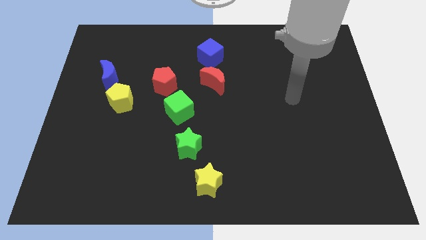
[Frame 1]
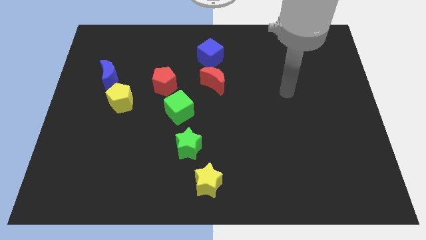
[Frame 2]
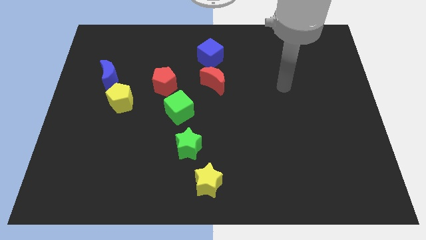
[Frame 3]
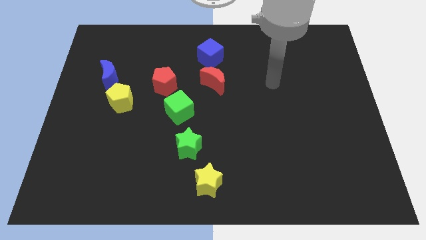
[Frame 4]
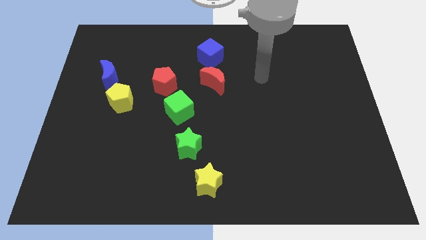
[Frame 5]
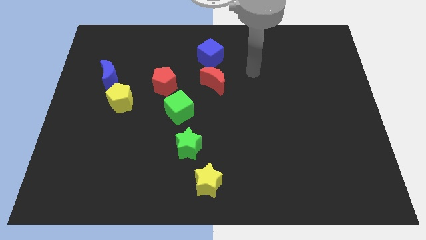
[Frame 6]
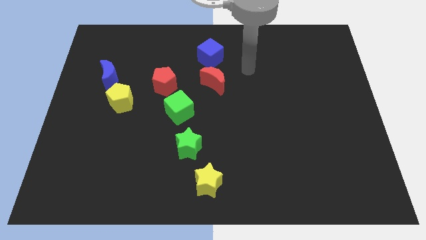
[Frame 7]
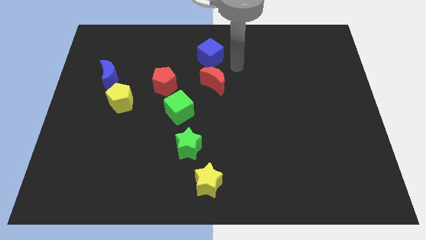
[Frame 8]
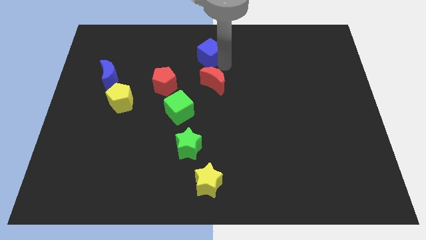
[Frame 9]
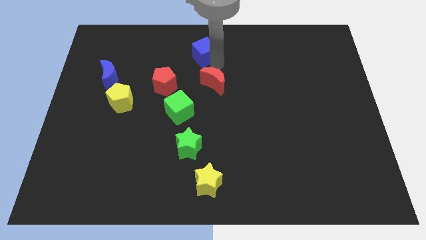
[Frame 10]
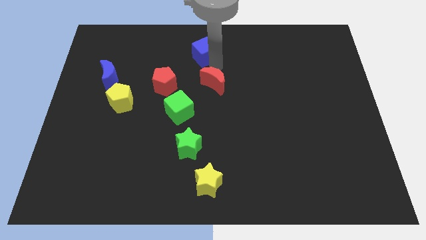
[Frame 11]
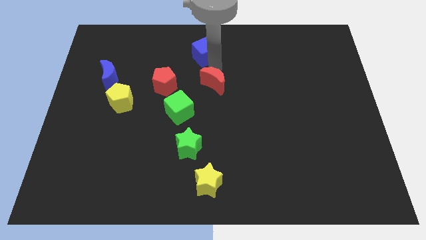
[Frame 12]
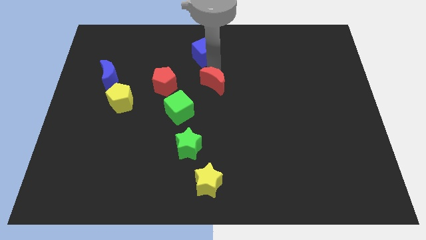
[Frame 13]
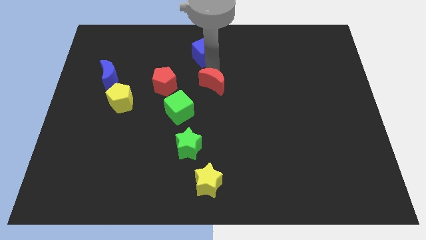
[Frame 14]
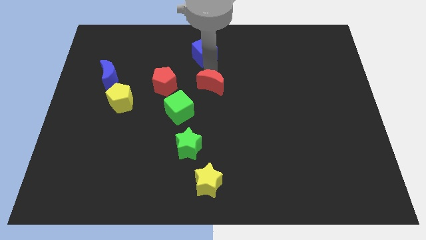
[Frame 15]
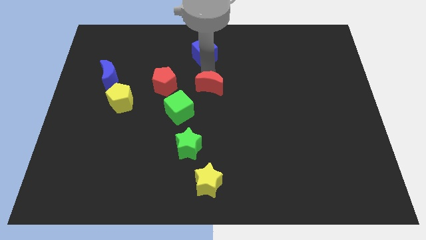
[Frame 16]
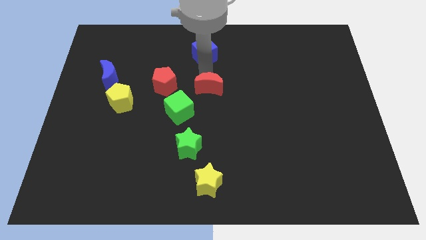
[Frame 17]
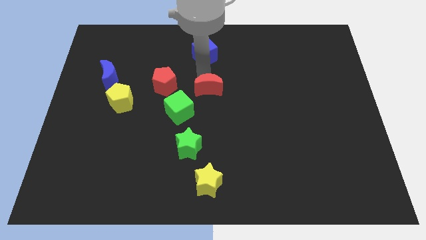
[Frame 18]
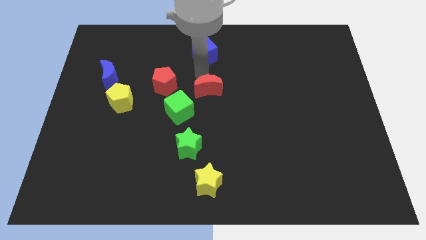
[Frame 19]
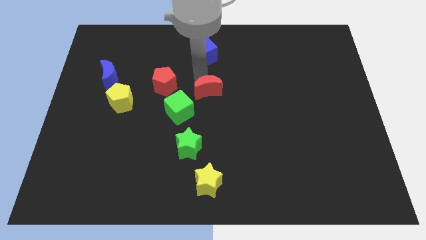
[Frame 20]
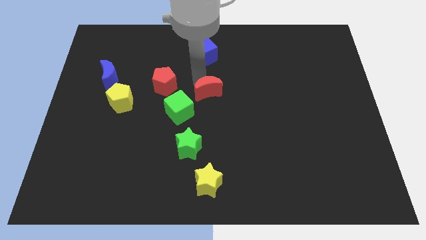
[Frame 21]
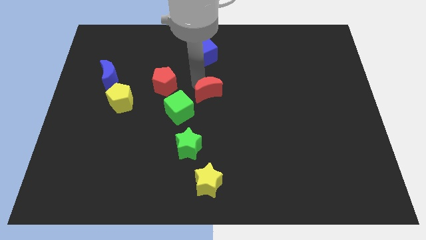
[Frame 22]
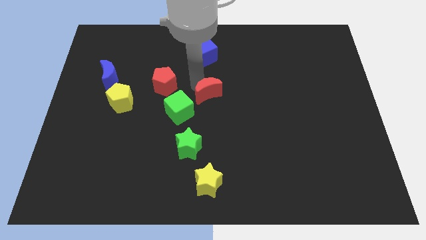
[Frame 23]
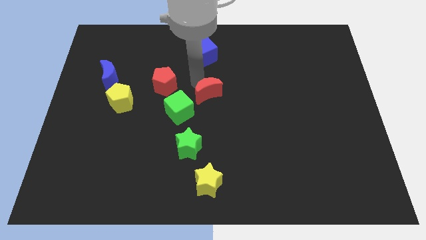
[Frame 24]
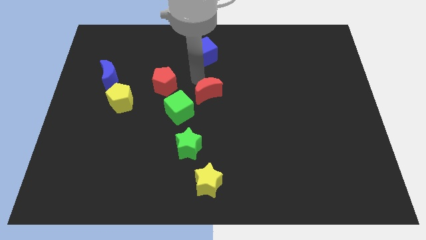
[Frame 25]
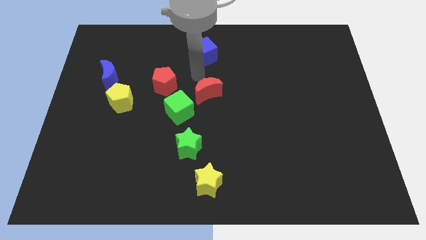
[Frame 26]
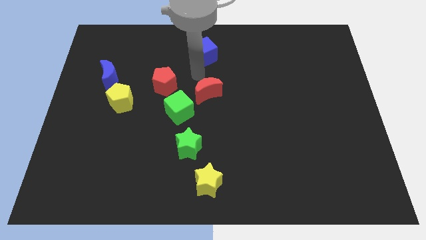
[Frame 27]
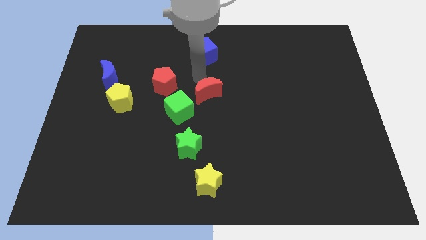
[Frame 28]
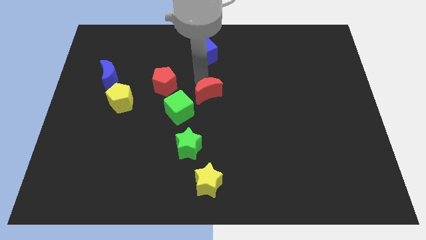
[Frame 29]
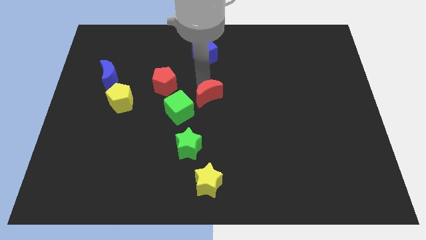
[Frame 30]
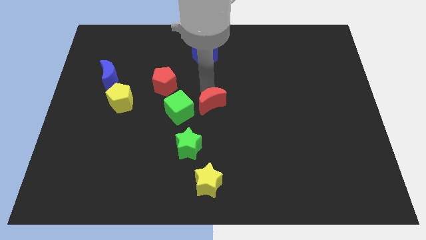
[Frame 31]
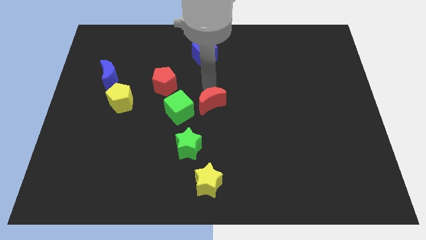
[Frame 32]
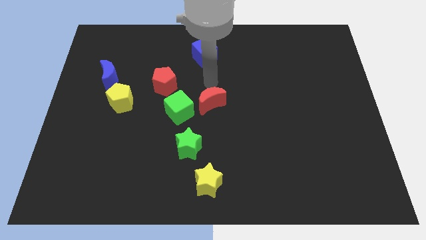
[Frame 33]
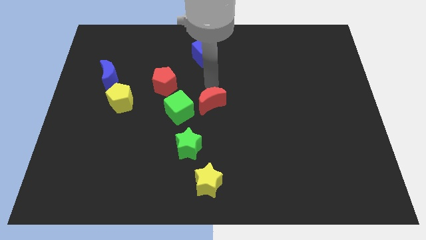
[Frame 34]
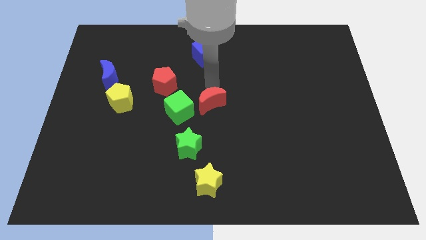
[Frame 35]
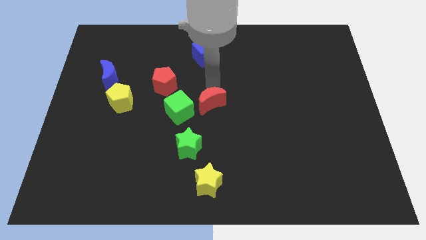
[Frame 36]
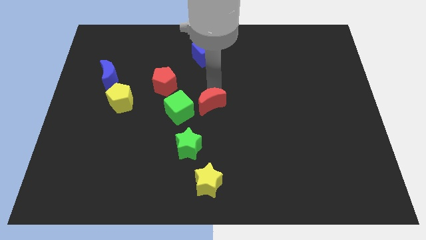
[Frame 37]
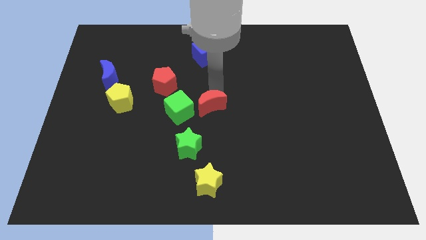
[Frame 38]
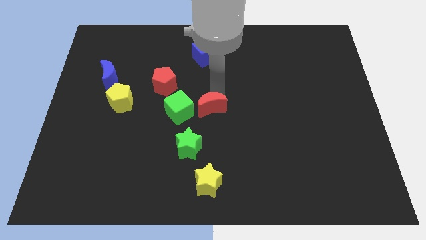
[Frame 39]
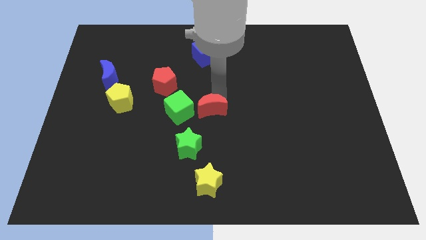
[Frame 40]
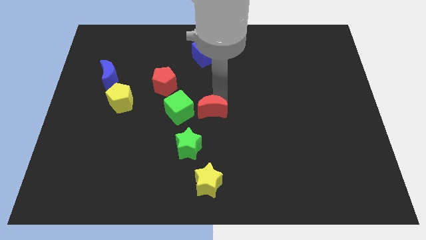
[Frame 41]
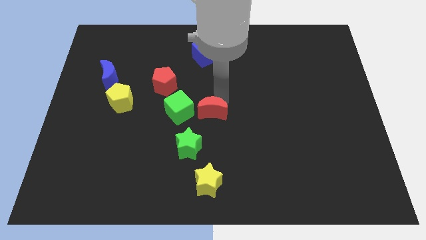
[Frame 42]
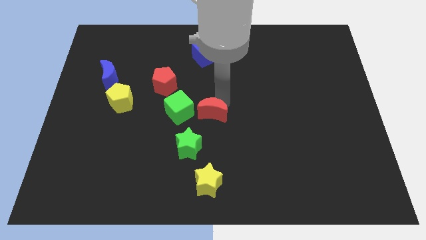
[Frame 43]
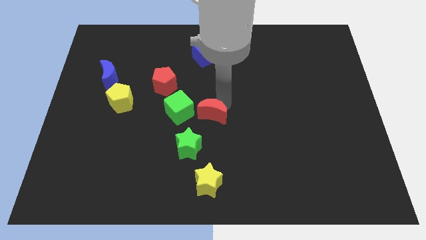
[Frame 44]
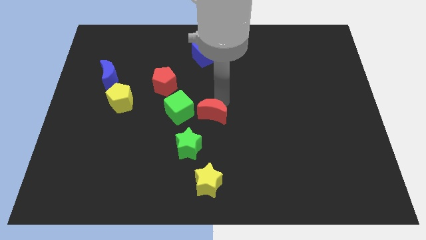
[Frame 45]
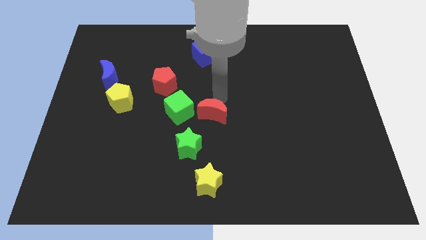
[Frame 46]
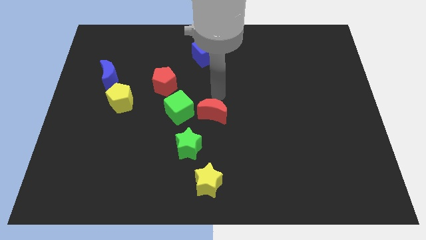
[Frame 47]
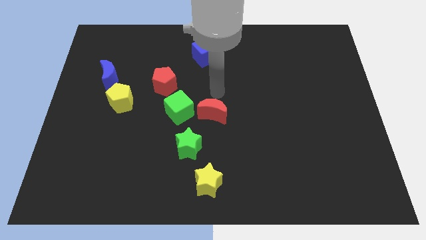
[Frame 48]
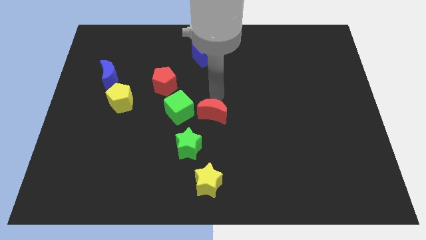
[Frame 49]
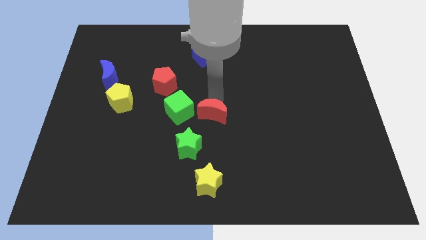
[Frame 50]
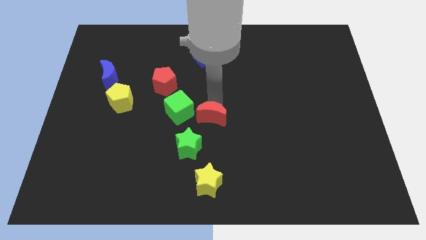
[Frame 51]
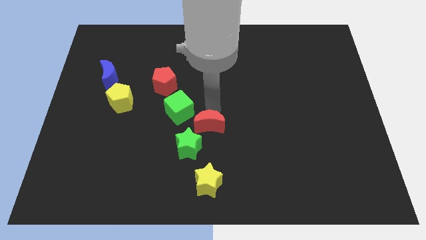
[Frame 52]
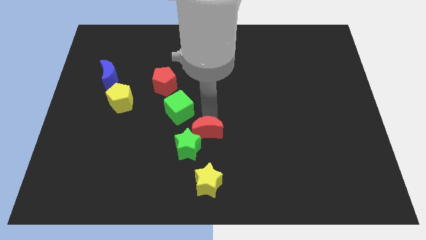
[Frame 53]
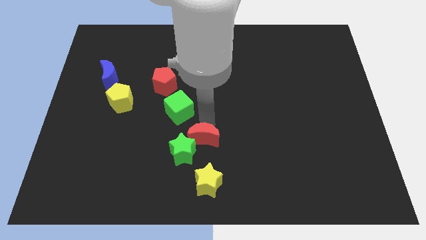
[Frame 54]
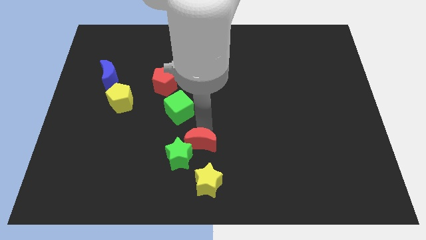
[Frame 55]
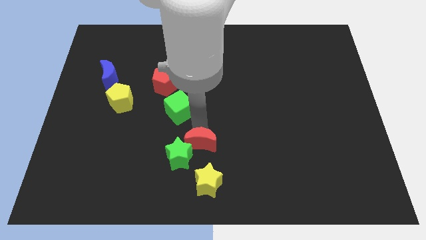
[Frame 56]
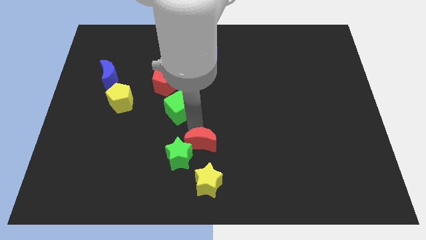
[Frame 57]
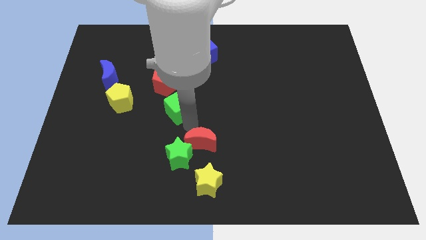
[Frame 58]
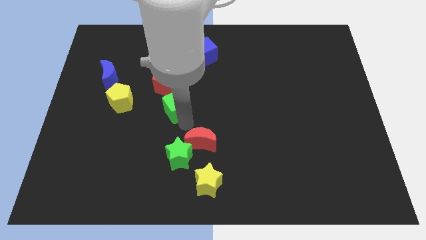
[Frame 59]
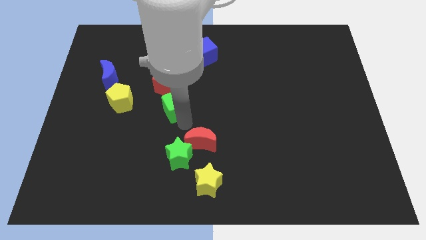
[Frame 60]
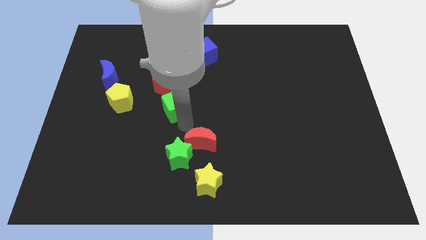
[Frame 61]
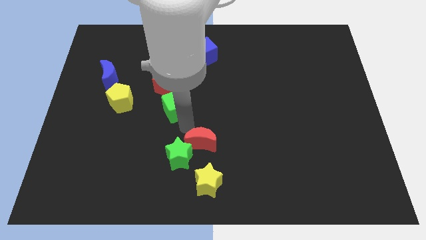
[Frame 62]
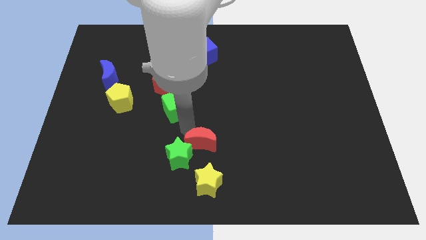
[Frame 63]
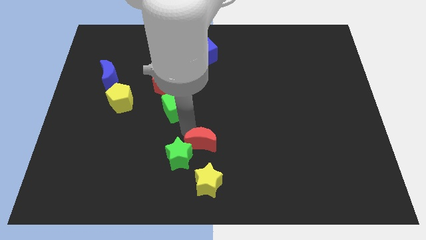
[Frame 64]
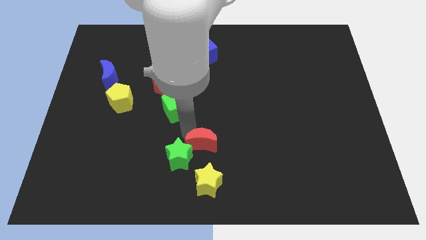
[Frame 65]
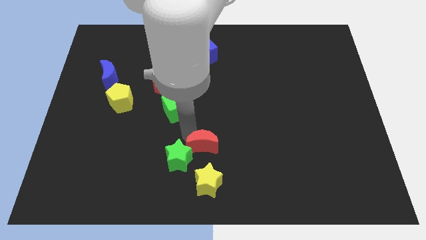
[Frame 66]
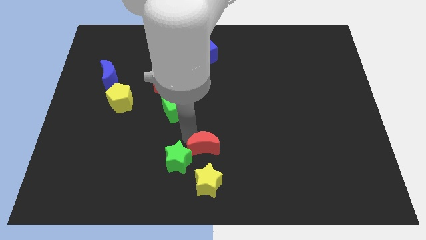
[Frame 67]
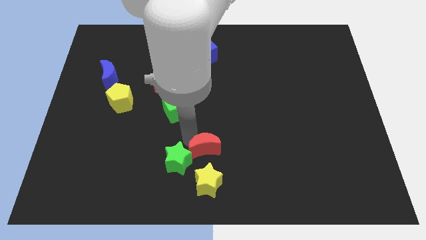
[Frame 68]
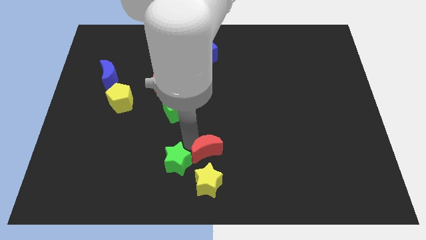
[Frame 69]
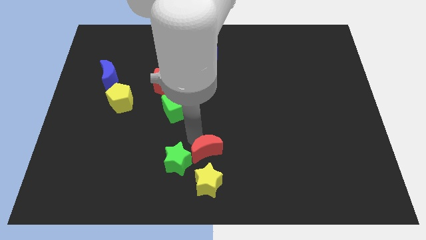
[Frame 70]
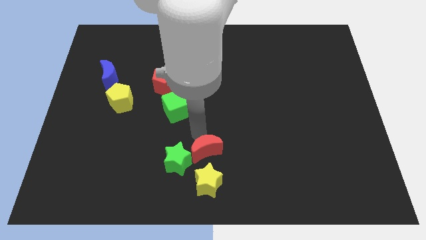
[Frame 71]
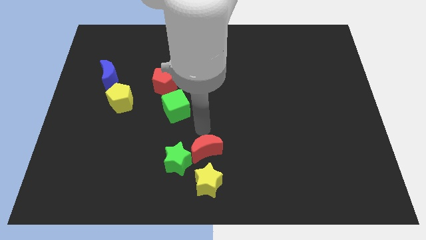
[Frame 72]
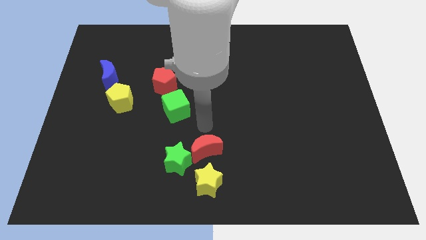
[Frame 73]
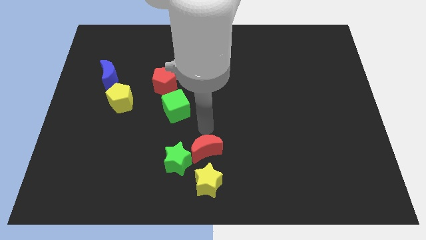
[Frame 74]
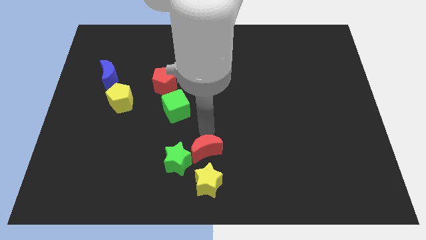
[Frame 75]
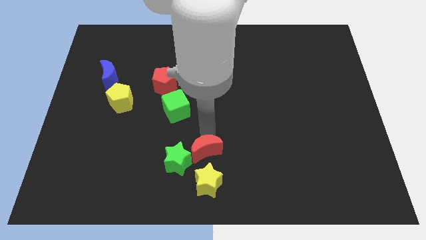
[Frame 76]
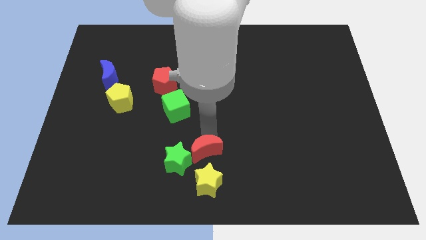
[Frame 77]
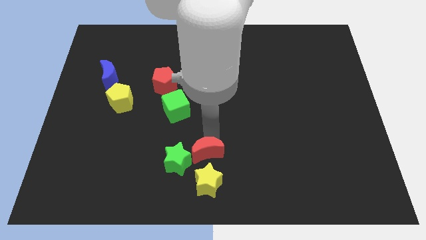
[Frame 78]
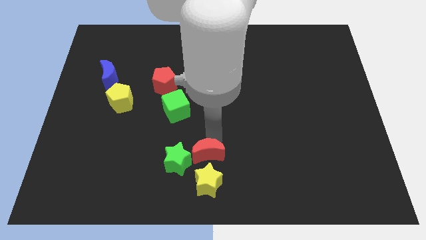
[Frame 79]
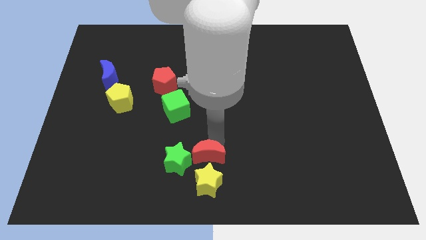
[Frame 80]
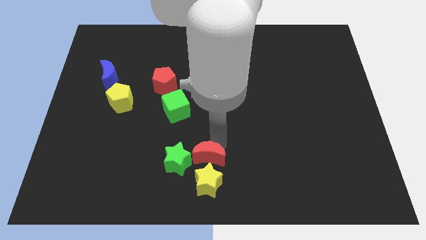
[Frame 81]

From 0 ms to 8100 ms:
push the red moon to the yellow star
